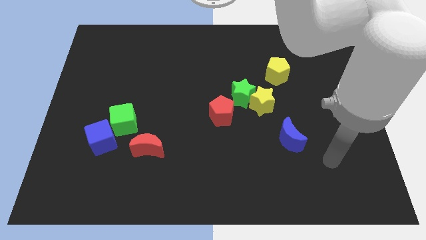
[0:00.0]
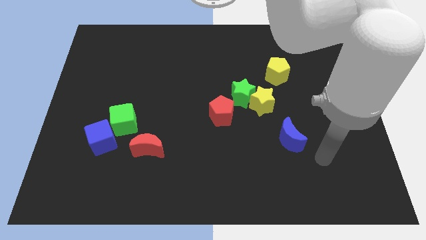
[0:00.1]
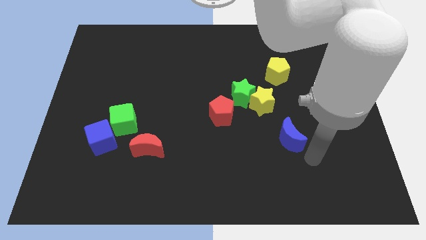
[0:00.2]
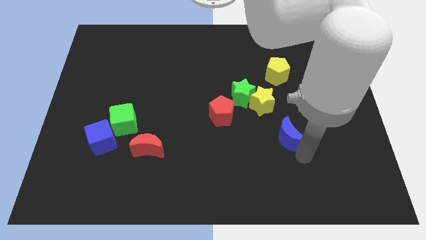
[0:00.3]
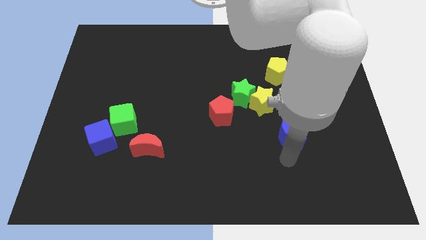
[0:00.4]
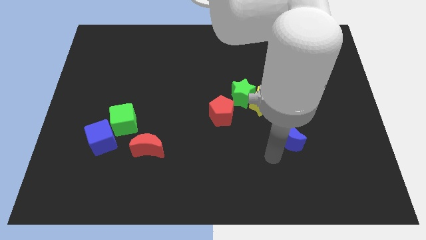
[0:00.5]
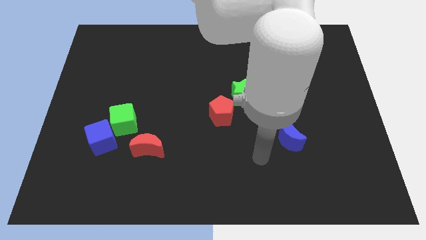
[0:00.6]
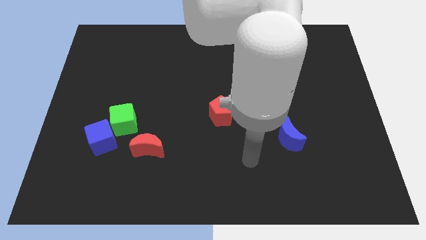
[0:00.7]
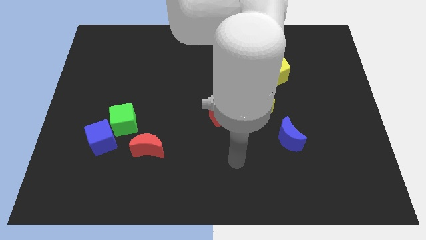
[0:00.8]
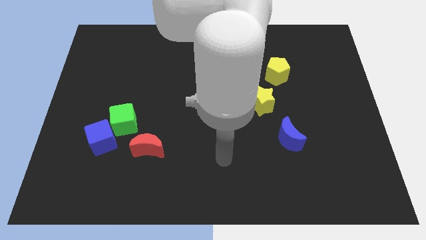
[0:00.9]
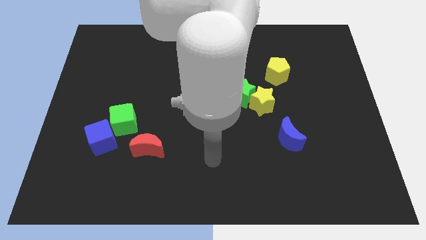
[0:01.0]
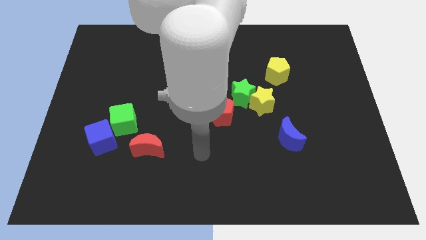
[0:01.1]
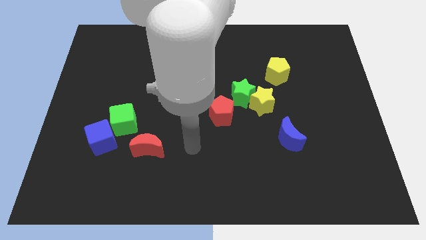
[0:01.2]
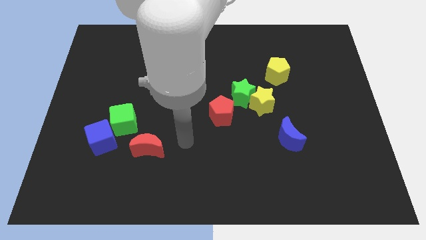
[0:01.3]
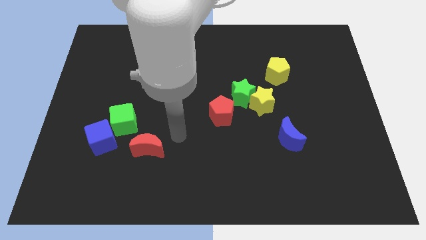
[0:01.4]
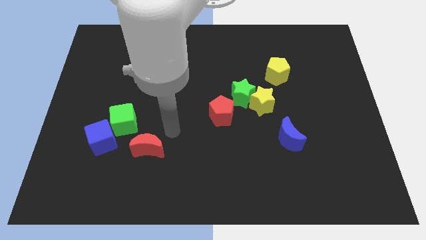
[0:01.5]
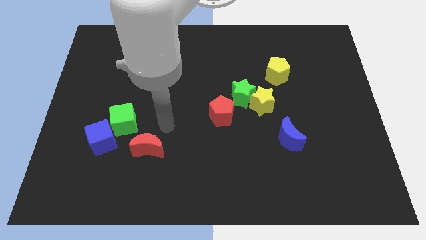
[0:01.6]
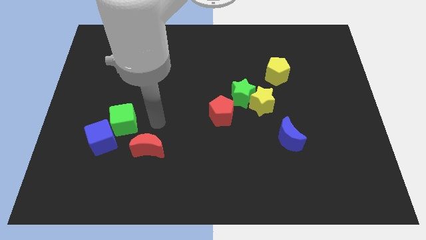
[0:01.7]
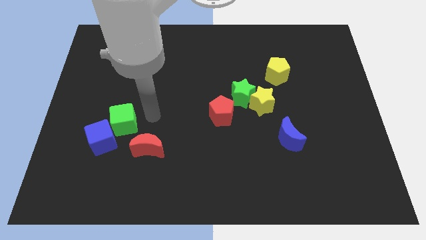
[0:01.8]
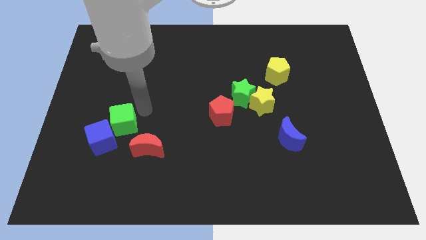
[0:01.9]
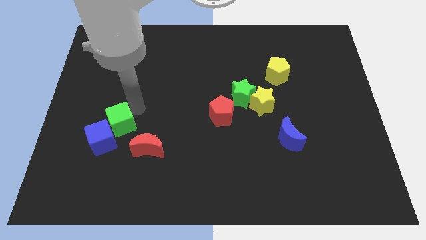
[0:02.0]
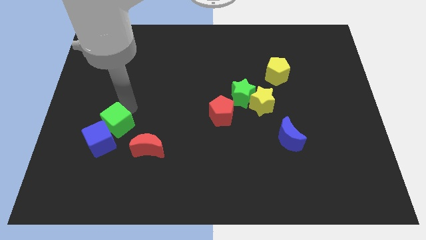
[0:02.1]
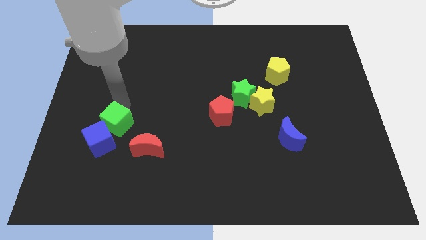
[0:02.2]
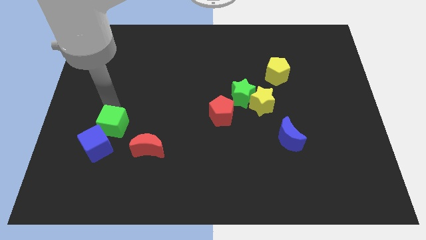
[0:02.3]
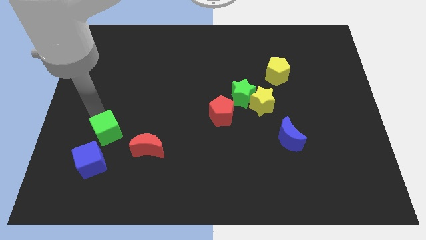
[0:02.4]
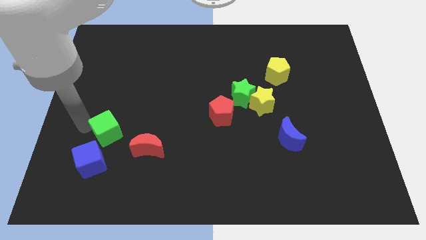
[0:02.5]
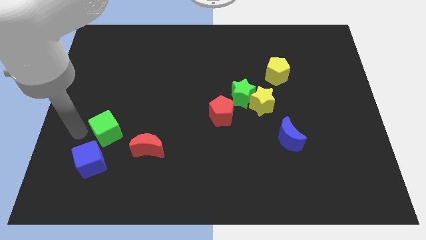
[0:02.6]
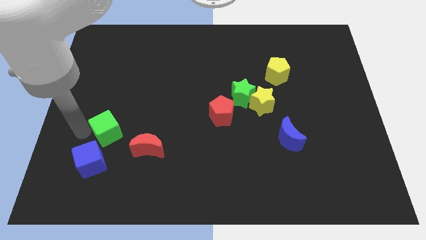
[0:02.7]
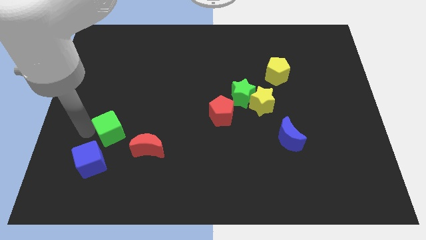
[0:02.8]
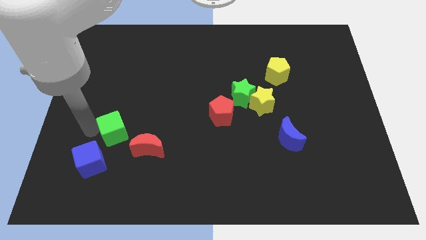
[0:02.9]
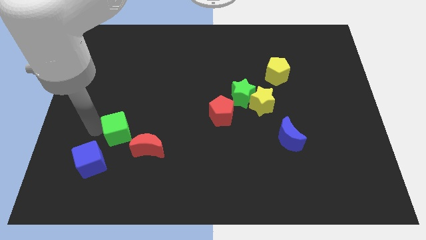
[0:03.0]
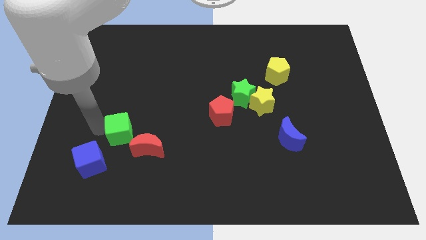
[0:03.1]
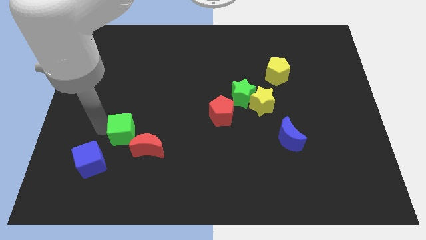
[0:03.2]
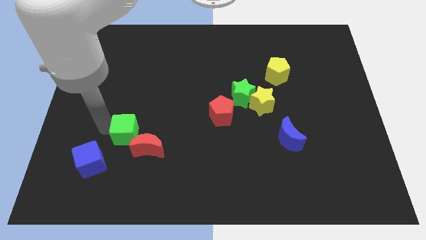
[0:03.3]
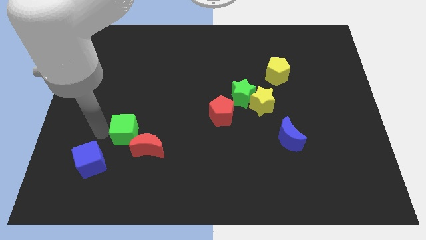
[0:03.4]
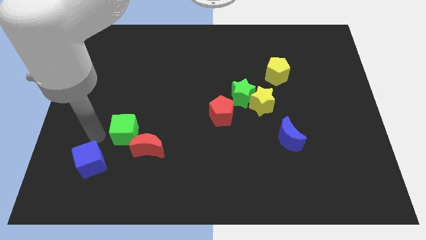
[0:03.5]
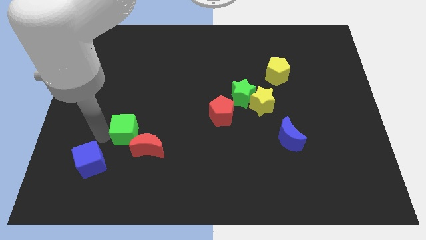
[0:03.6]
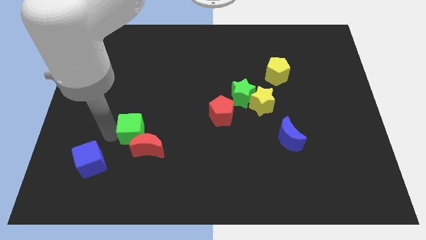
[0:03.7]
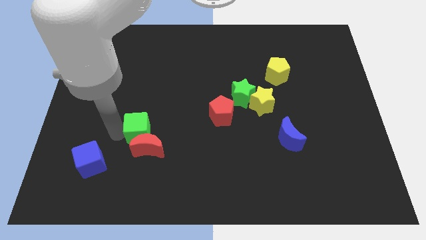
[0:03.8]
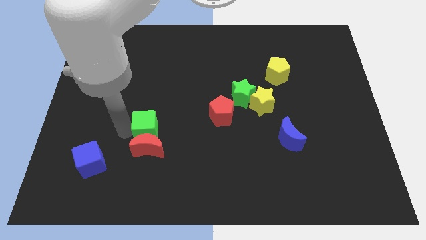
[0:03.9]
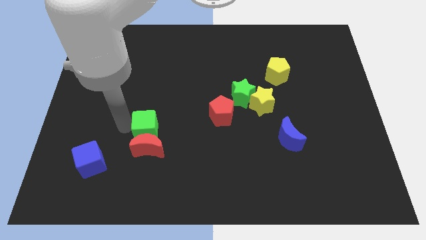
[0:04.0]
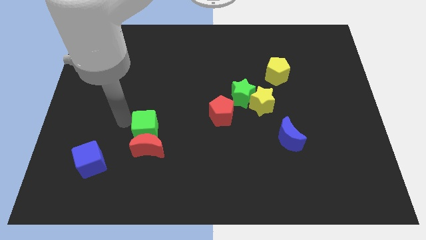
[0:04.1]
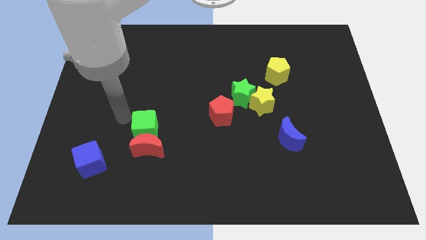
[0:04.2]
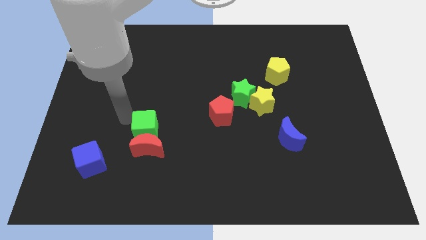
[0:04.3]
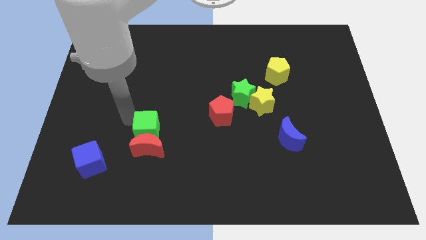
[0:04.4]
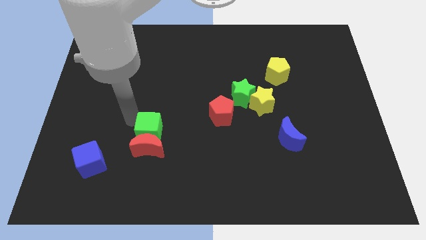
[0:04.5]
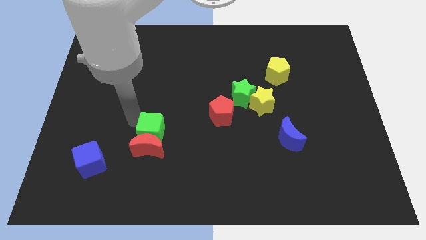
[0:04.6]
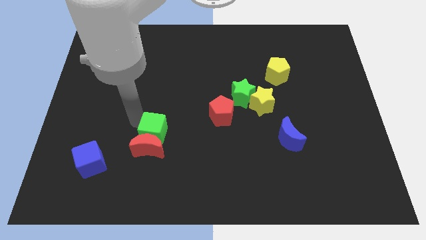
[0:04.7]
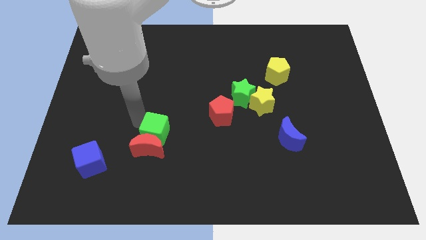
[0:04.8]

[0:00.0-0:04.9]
slide the green cube a bit diagonally down and right

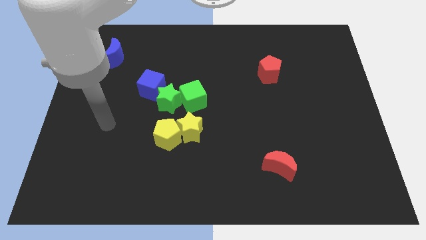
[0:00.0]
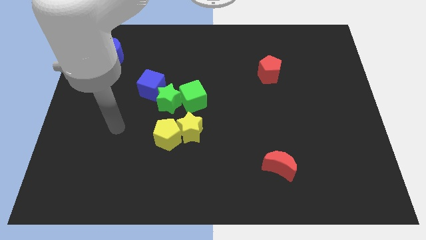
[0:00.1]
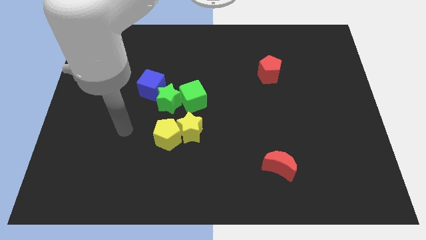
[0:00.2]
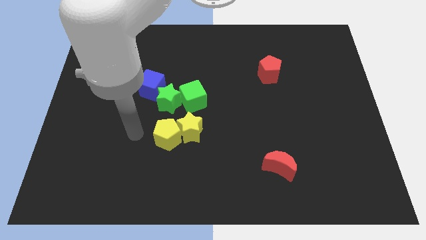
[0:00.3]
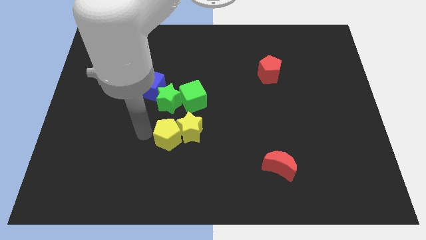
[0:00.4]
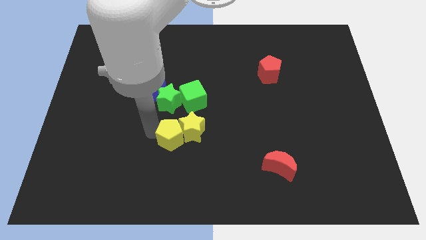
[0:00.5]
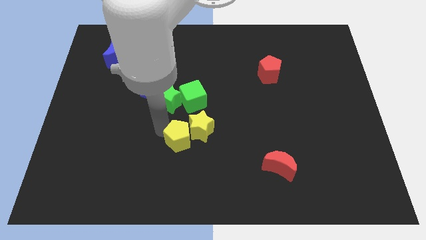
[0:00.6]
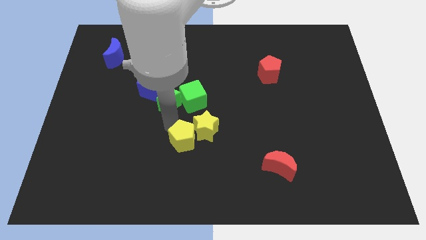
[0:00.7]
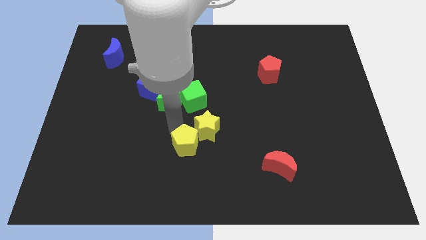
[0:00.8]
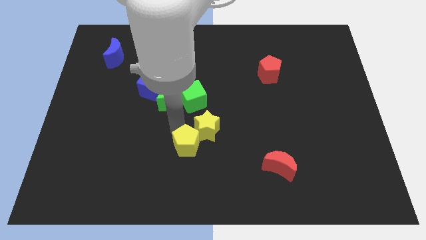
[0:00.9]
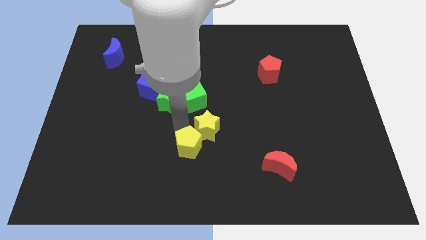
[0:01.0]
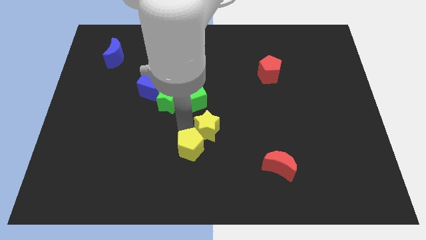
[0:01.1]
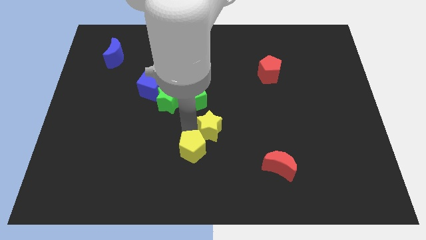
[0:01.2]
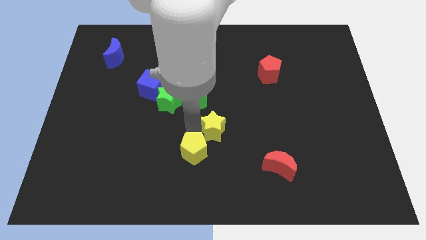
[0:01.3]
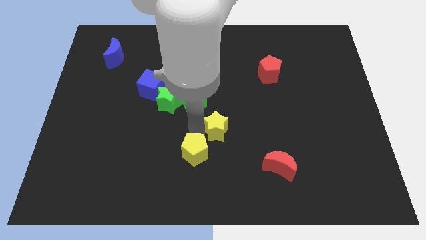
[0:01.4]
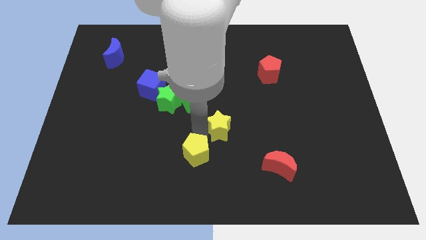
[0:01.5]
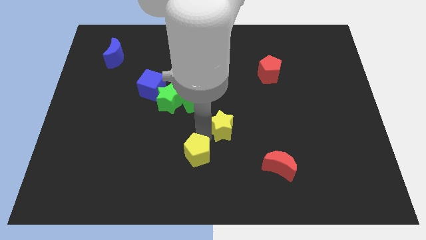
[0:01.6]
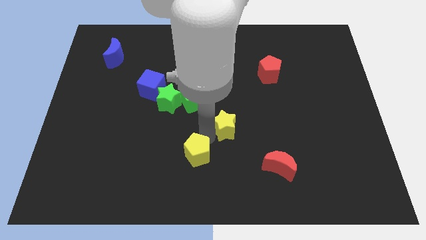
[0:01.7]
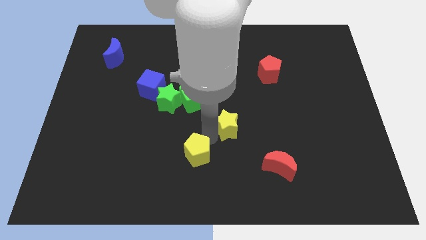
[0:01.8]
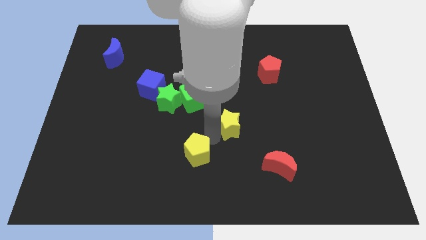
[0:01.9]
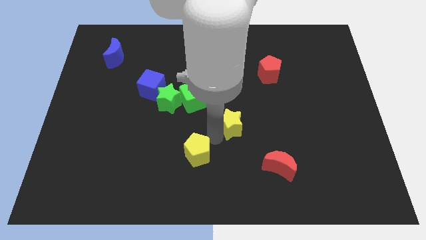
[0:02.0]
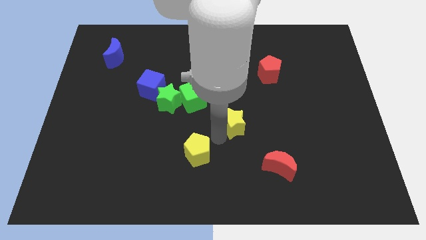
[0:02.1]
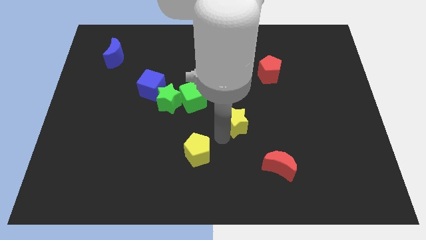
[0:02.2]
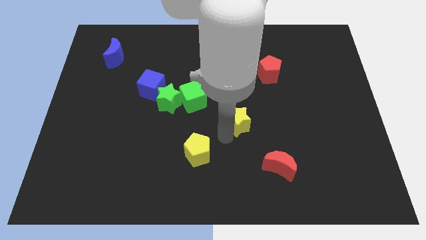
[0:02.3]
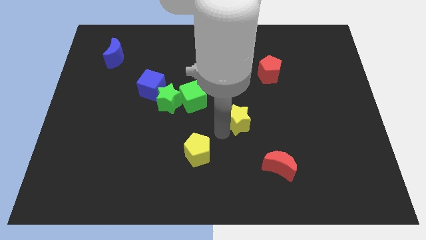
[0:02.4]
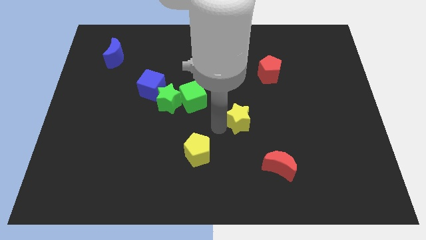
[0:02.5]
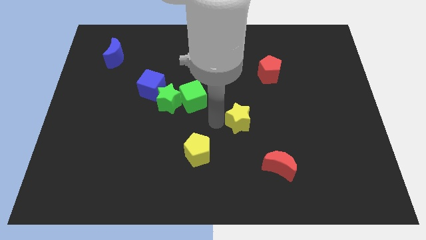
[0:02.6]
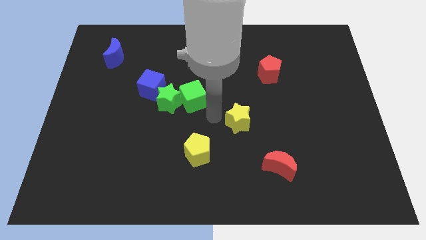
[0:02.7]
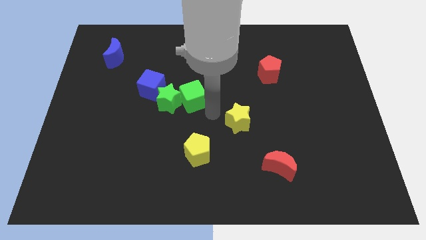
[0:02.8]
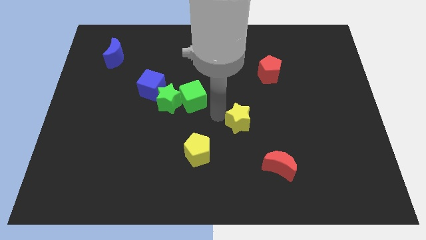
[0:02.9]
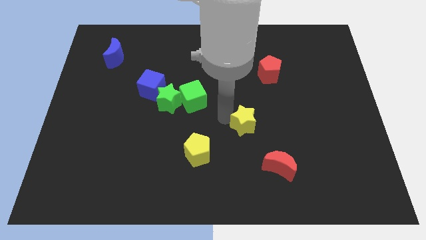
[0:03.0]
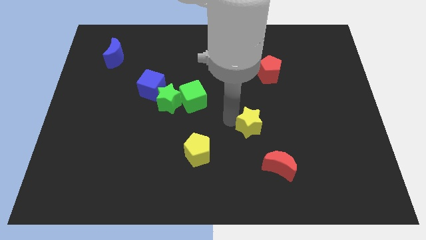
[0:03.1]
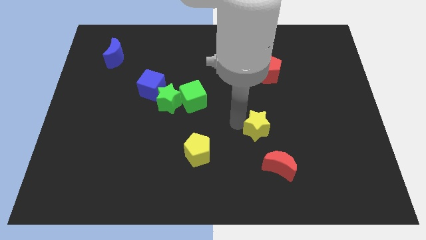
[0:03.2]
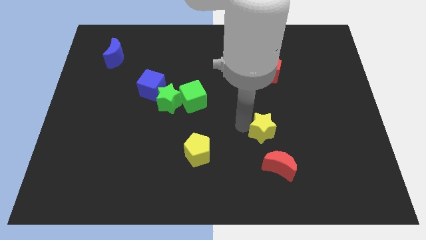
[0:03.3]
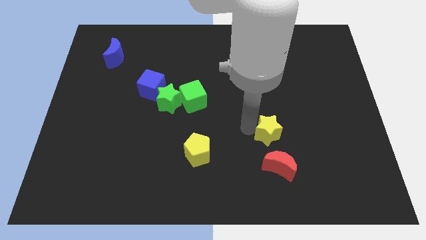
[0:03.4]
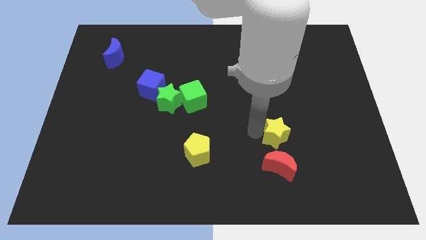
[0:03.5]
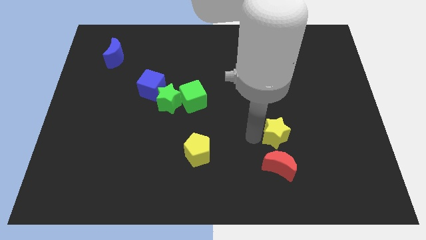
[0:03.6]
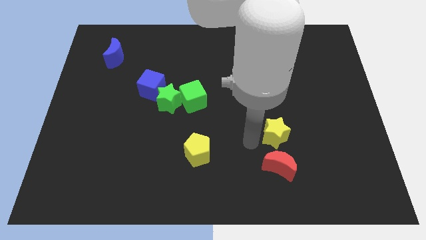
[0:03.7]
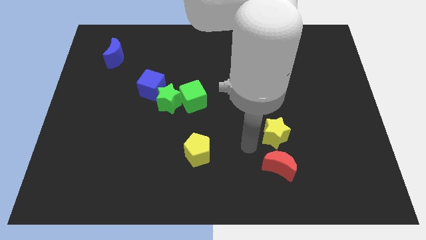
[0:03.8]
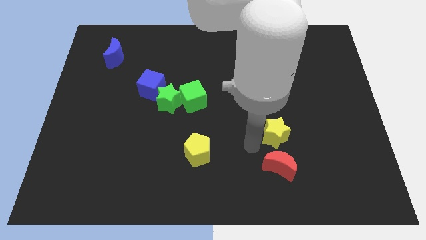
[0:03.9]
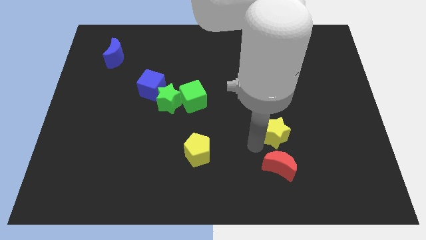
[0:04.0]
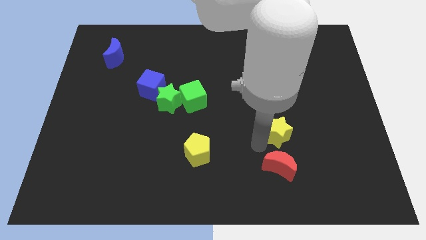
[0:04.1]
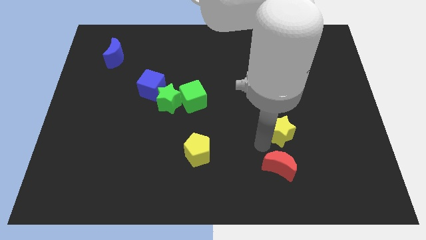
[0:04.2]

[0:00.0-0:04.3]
push the yellow star to the right
